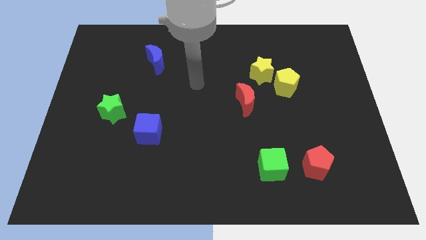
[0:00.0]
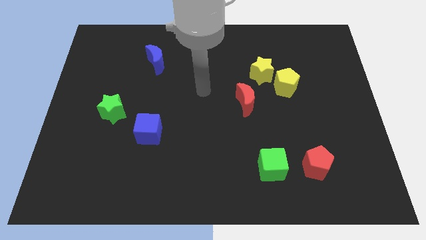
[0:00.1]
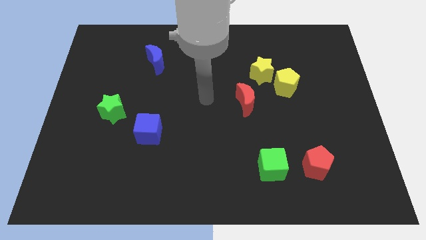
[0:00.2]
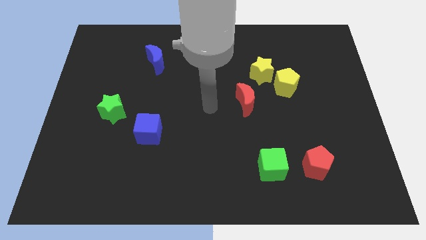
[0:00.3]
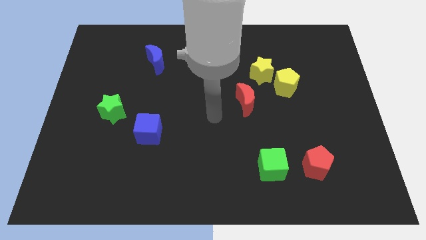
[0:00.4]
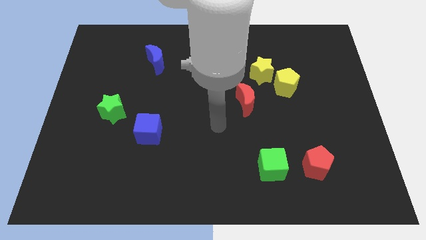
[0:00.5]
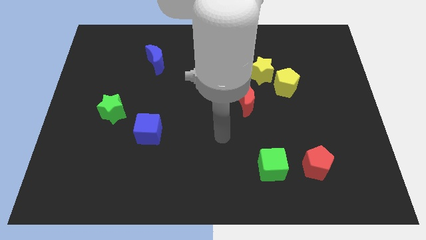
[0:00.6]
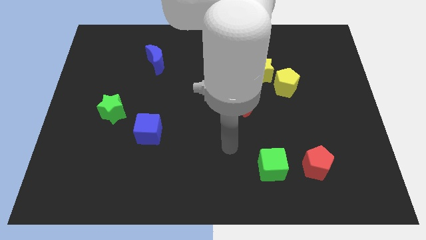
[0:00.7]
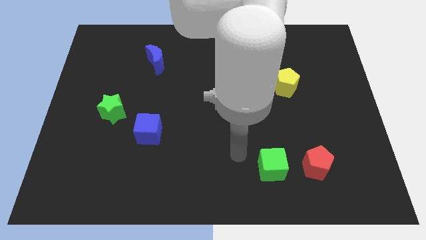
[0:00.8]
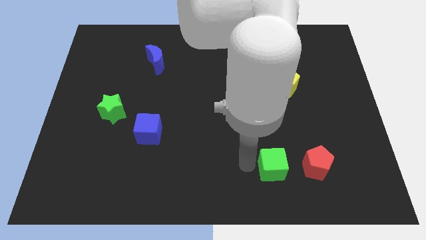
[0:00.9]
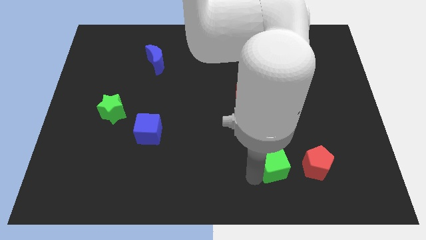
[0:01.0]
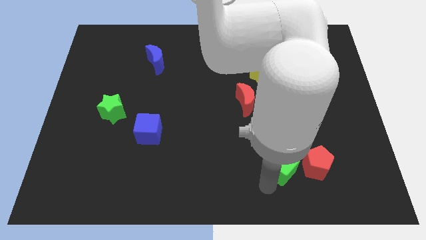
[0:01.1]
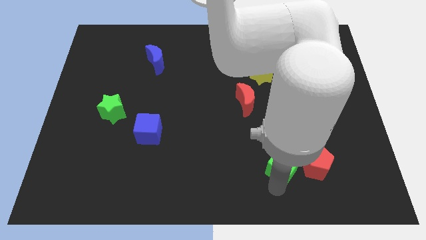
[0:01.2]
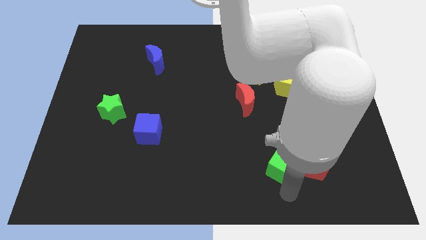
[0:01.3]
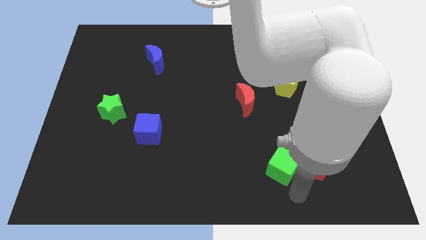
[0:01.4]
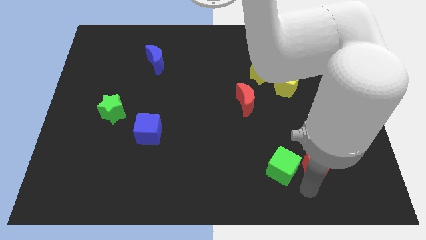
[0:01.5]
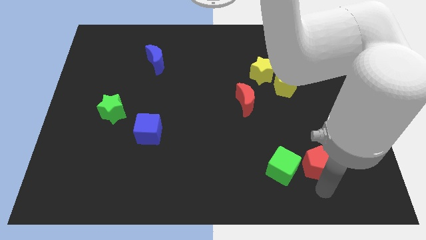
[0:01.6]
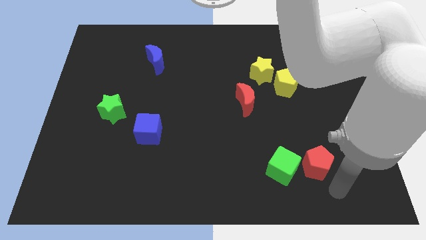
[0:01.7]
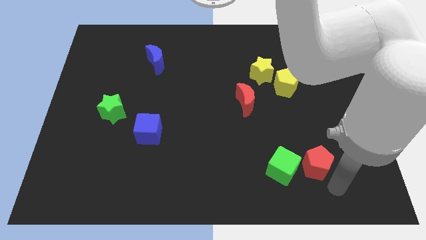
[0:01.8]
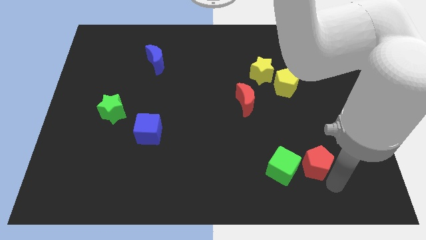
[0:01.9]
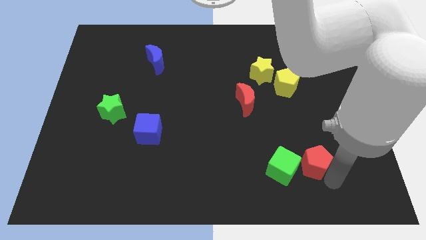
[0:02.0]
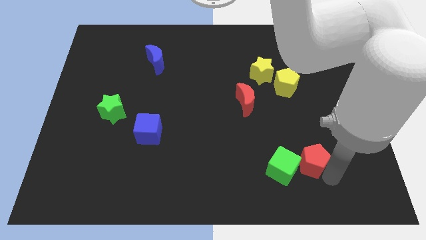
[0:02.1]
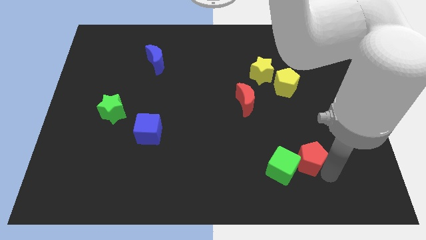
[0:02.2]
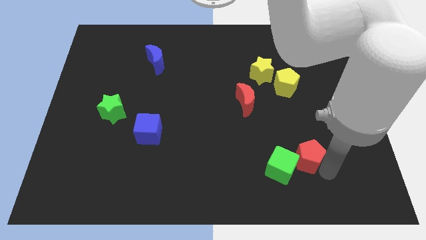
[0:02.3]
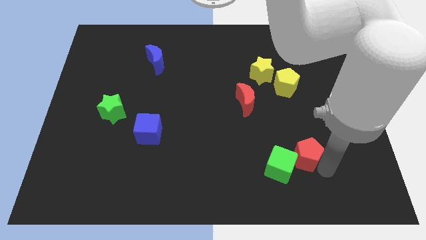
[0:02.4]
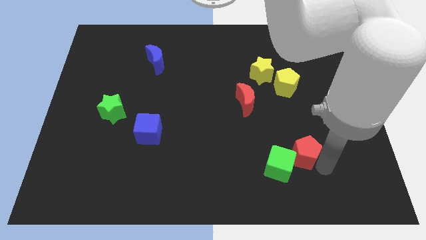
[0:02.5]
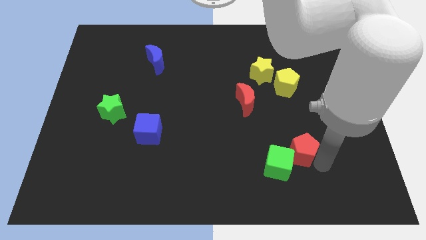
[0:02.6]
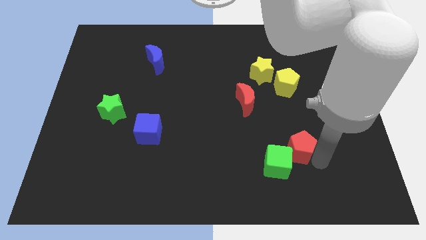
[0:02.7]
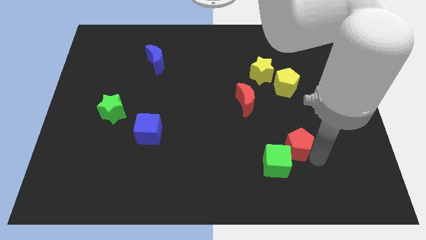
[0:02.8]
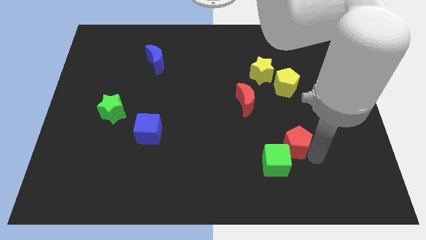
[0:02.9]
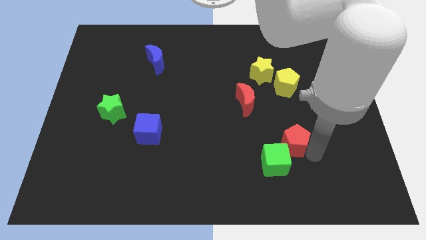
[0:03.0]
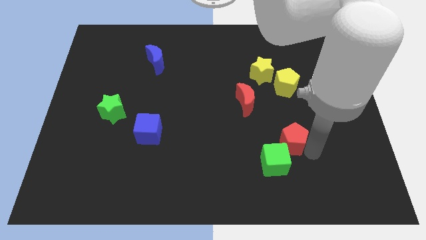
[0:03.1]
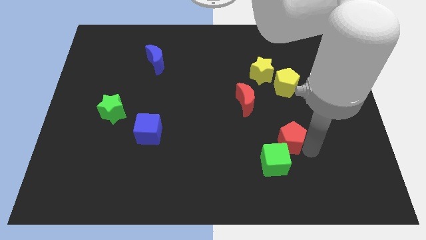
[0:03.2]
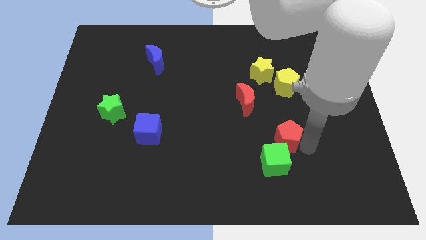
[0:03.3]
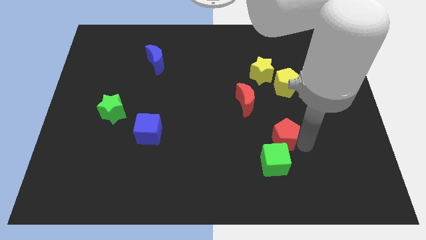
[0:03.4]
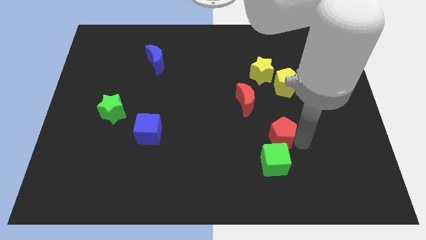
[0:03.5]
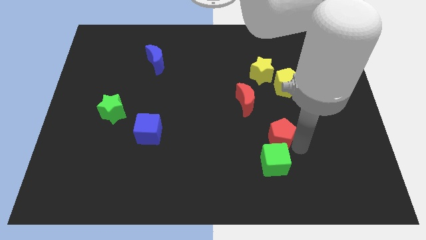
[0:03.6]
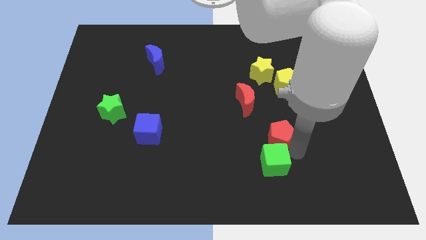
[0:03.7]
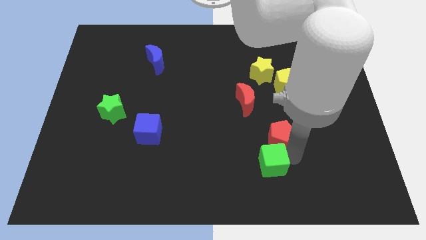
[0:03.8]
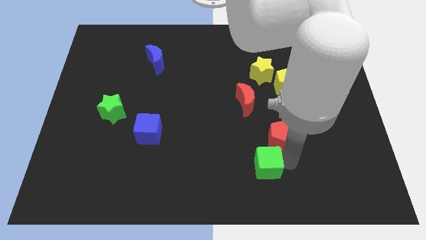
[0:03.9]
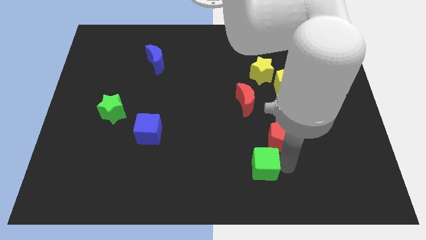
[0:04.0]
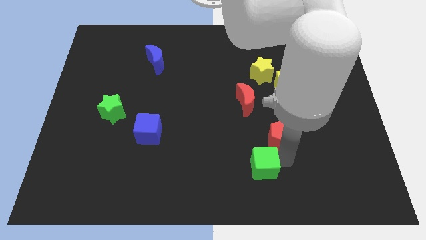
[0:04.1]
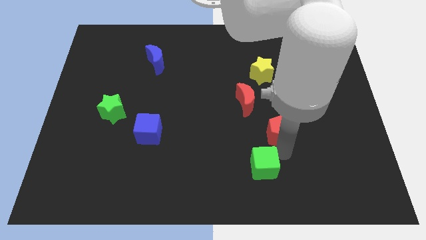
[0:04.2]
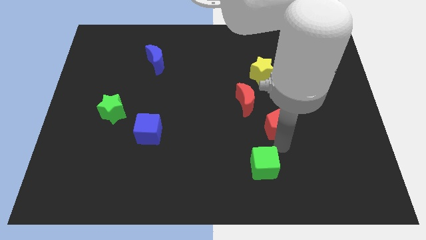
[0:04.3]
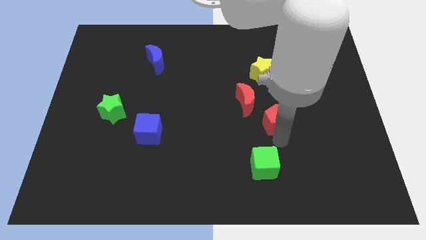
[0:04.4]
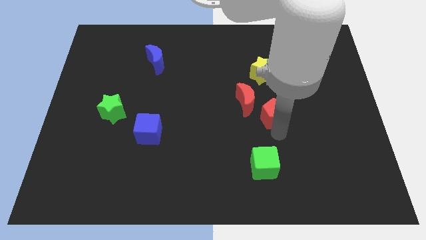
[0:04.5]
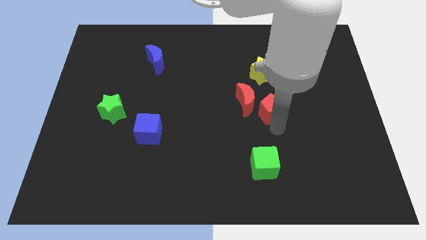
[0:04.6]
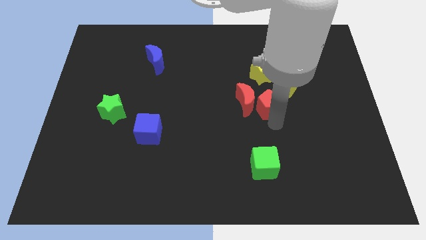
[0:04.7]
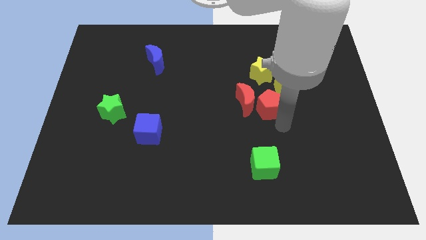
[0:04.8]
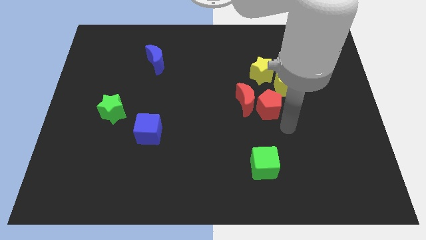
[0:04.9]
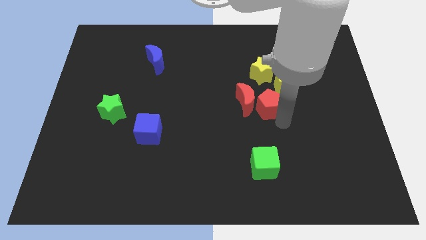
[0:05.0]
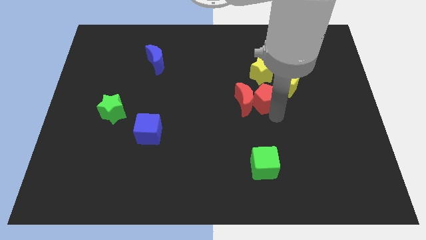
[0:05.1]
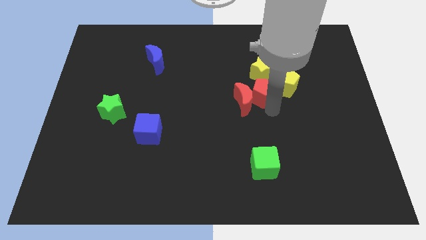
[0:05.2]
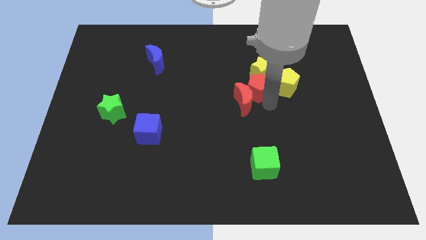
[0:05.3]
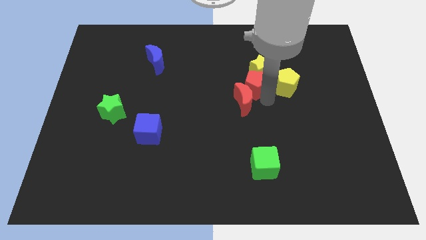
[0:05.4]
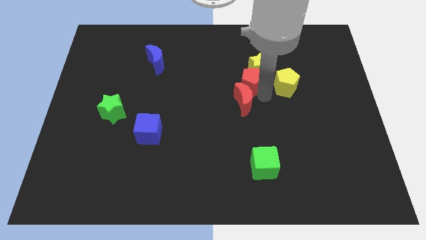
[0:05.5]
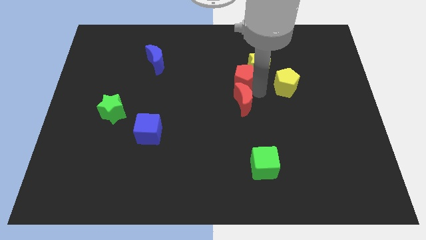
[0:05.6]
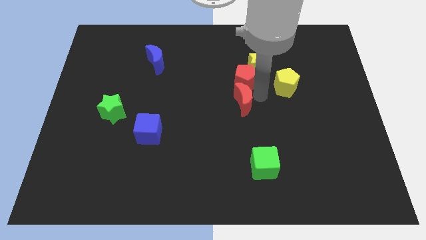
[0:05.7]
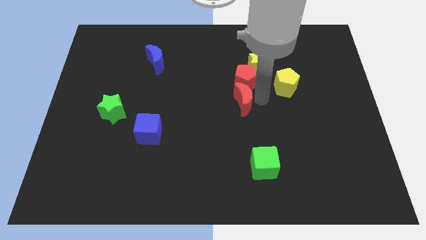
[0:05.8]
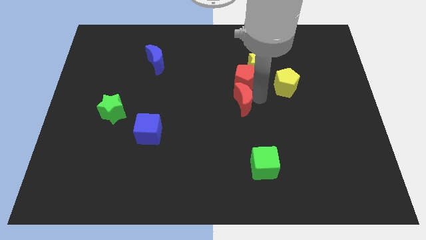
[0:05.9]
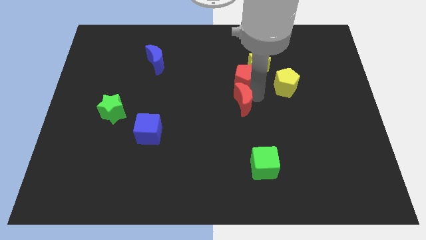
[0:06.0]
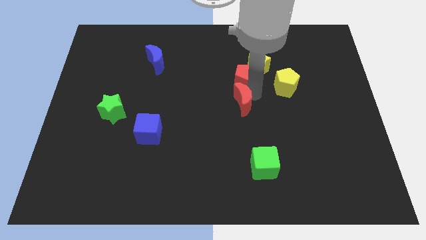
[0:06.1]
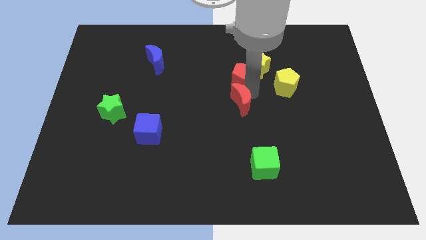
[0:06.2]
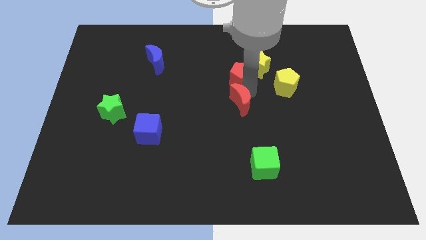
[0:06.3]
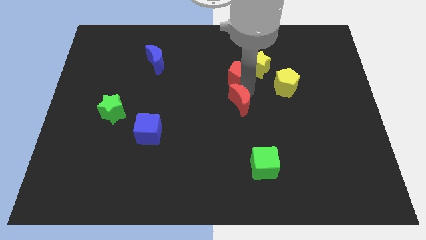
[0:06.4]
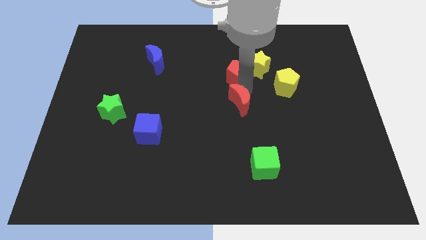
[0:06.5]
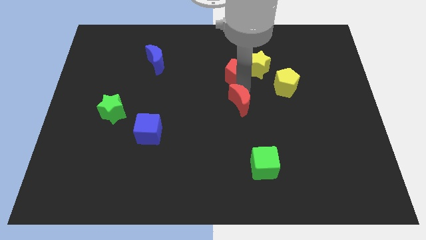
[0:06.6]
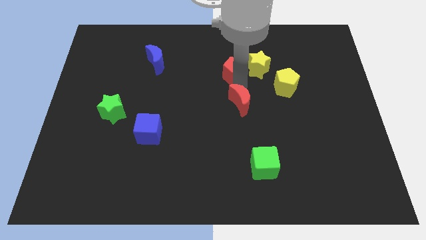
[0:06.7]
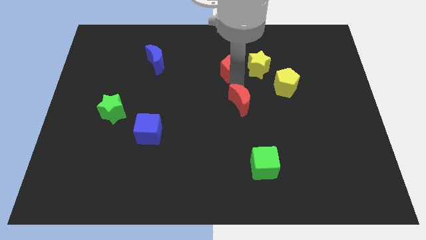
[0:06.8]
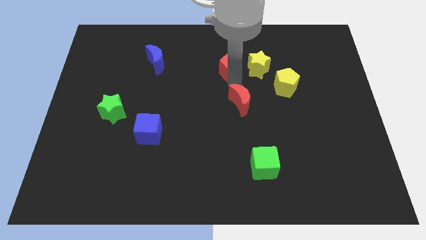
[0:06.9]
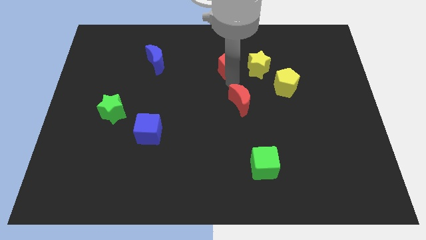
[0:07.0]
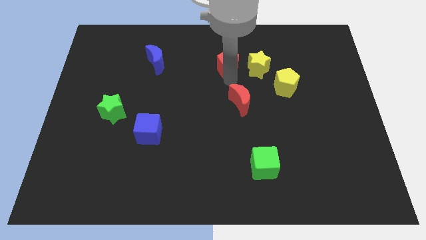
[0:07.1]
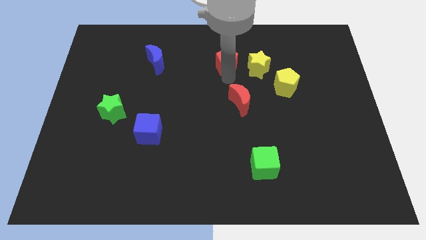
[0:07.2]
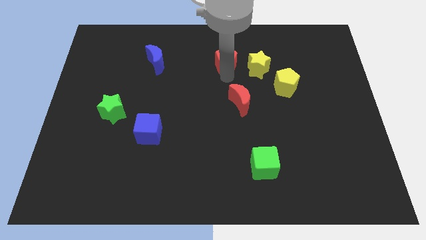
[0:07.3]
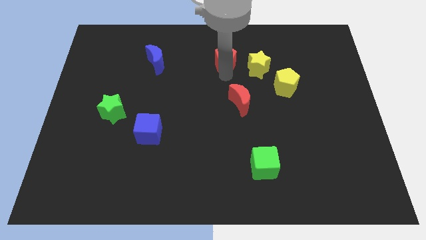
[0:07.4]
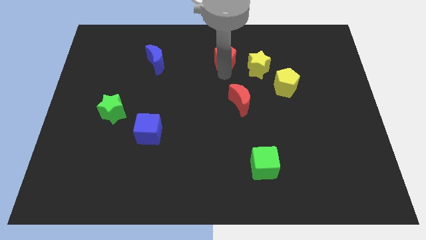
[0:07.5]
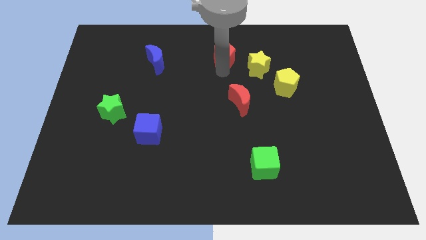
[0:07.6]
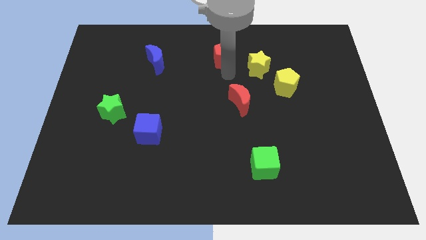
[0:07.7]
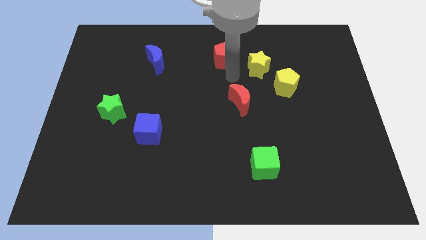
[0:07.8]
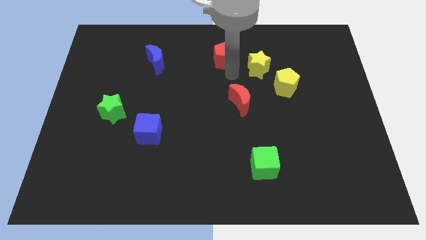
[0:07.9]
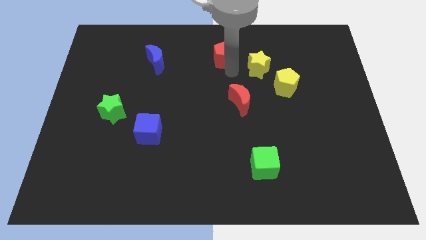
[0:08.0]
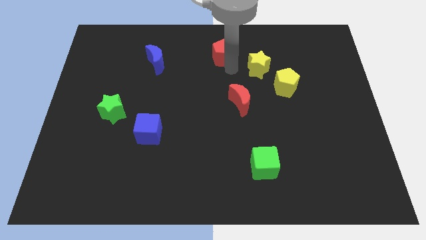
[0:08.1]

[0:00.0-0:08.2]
slide the red pentagon to the top
